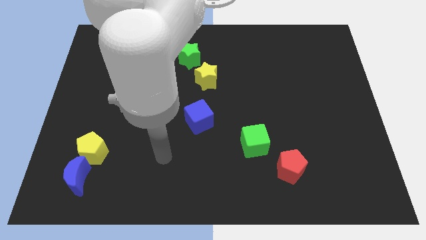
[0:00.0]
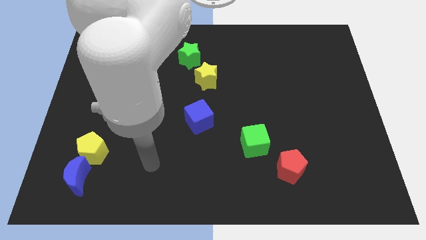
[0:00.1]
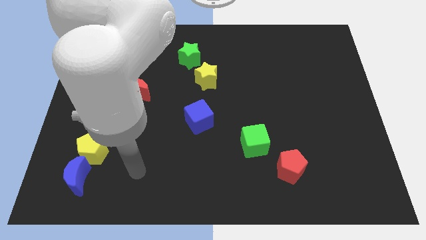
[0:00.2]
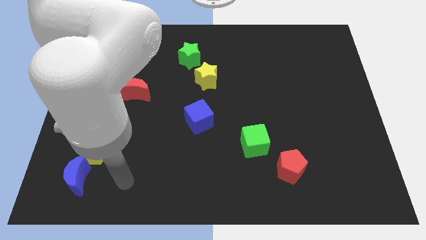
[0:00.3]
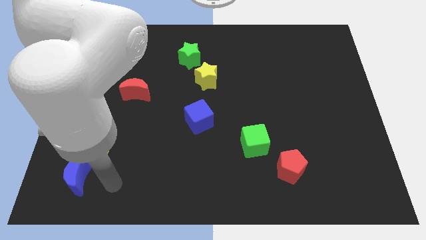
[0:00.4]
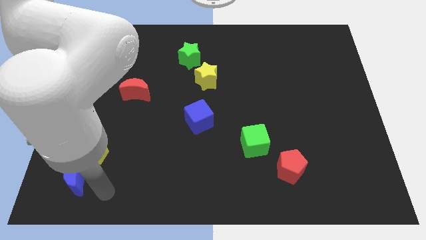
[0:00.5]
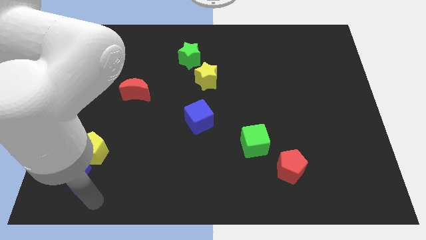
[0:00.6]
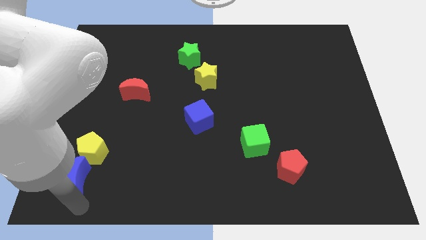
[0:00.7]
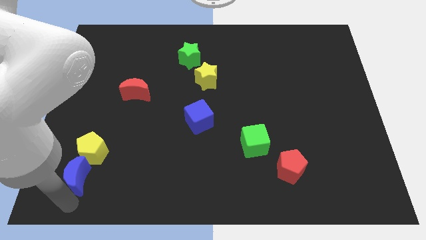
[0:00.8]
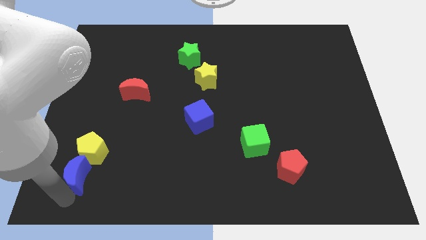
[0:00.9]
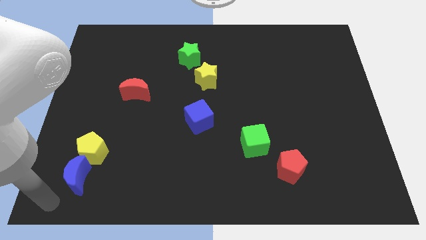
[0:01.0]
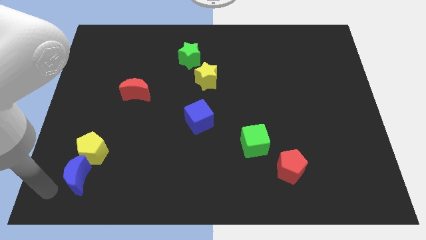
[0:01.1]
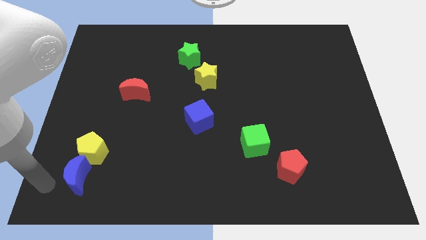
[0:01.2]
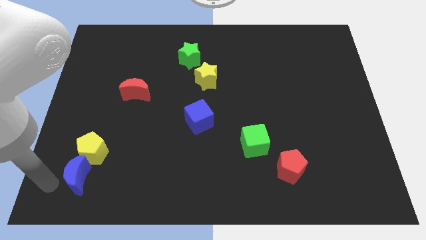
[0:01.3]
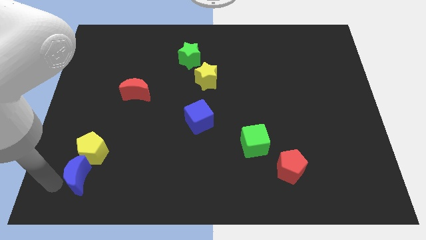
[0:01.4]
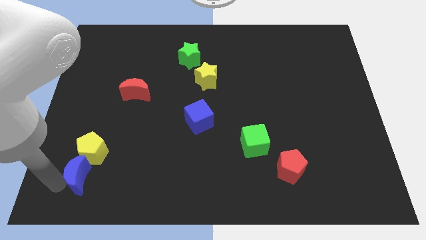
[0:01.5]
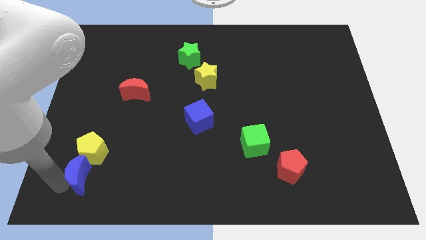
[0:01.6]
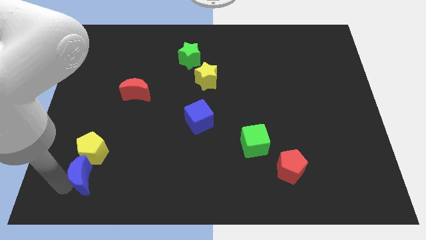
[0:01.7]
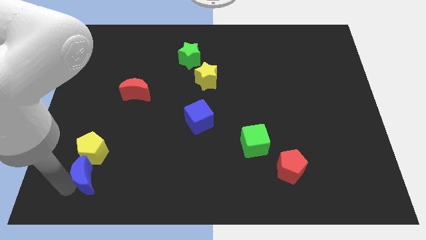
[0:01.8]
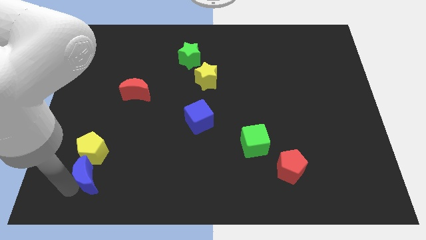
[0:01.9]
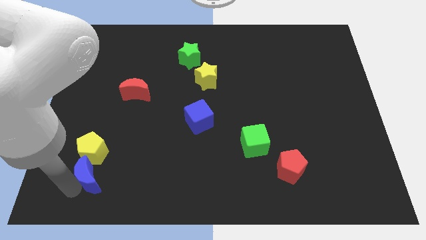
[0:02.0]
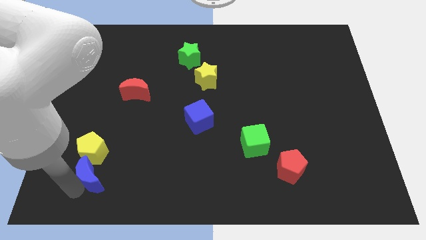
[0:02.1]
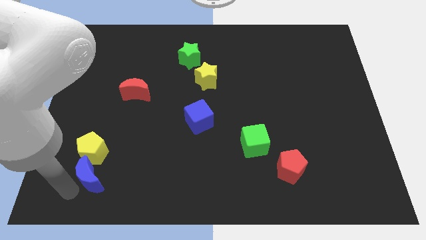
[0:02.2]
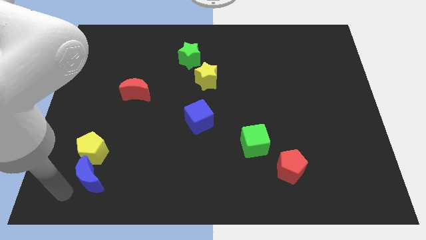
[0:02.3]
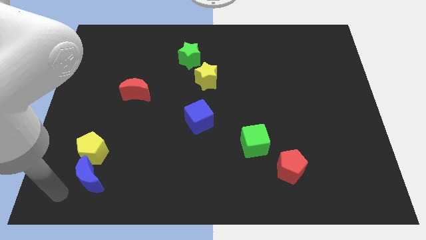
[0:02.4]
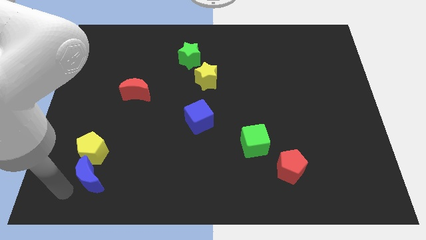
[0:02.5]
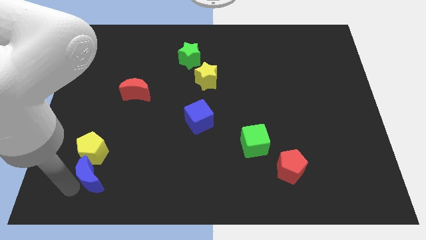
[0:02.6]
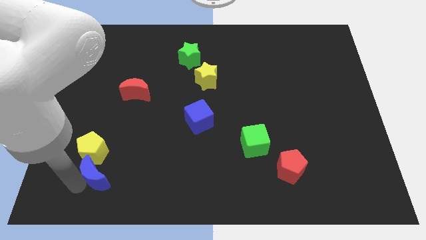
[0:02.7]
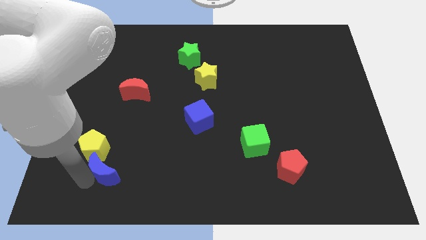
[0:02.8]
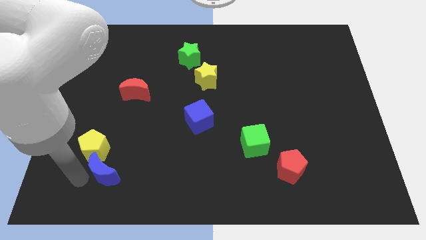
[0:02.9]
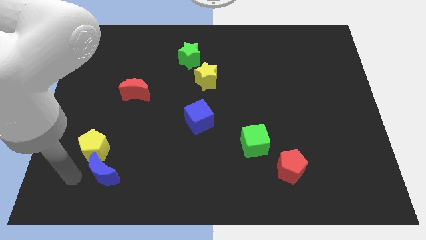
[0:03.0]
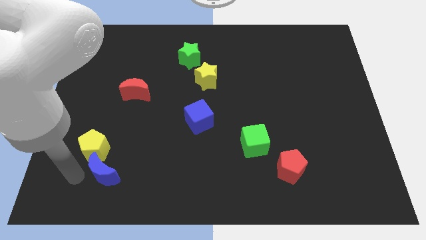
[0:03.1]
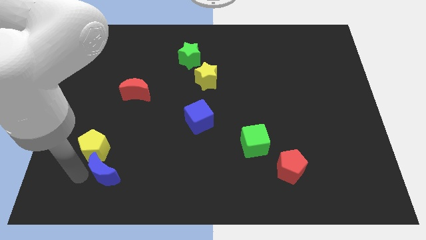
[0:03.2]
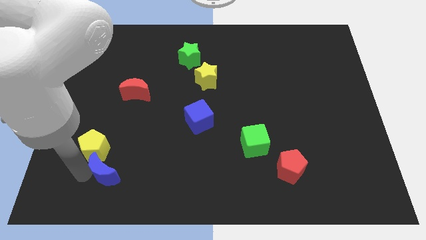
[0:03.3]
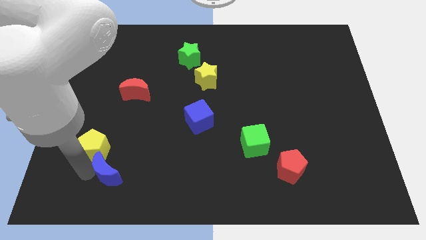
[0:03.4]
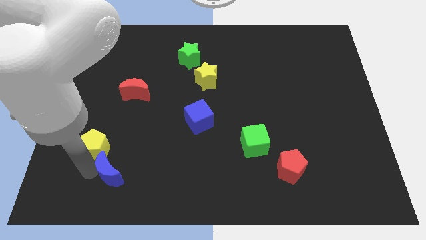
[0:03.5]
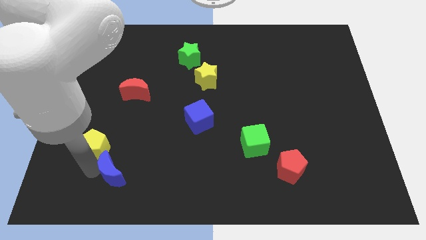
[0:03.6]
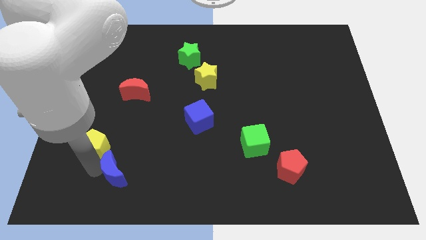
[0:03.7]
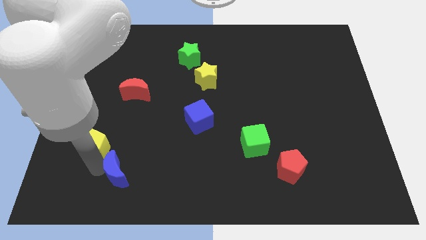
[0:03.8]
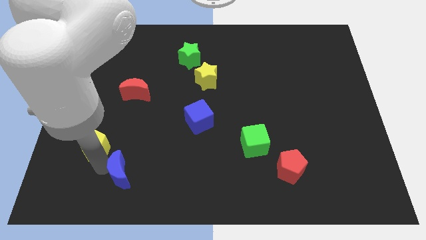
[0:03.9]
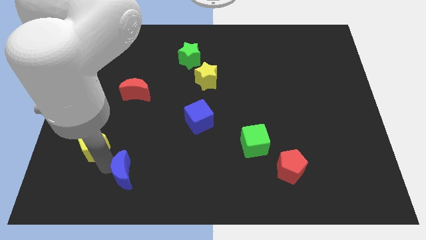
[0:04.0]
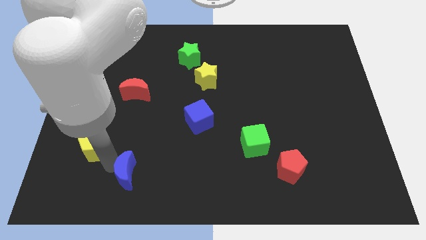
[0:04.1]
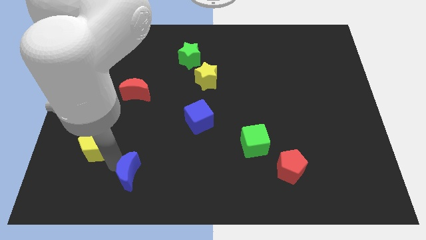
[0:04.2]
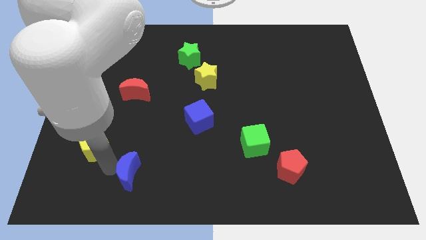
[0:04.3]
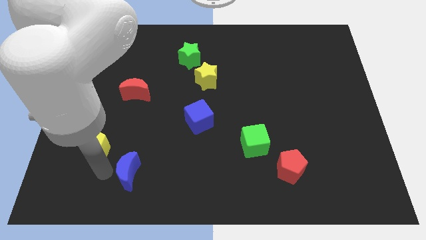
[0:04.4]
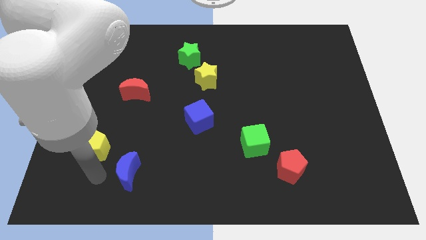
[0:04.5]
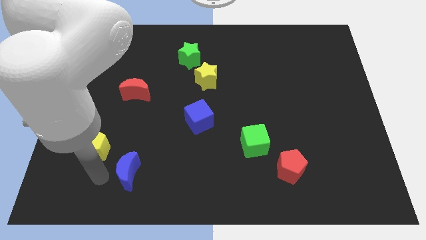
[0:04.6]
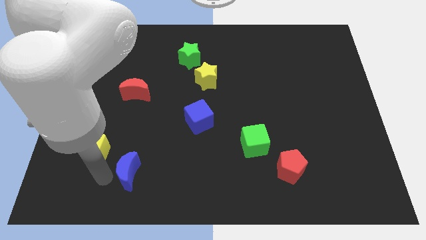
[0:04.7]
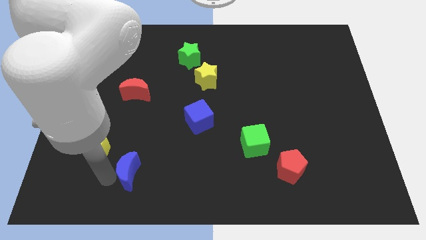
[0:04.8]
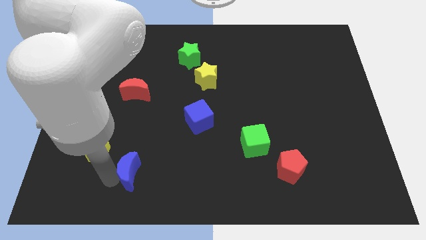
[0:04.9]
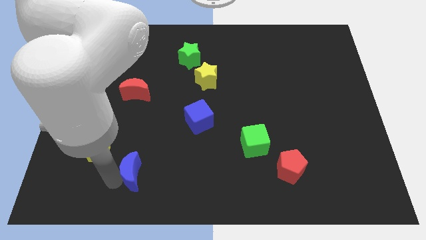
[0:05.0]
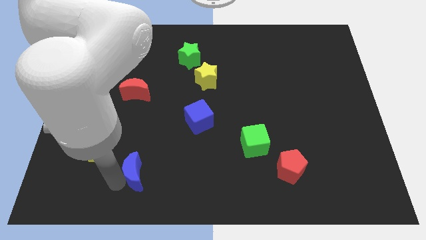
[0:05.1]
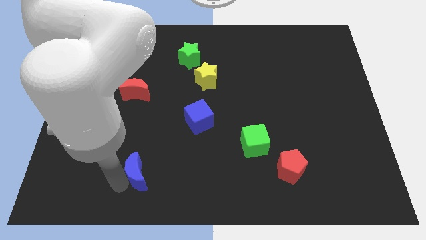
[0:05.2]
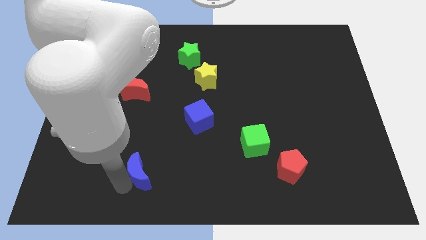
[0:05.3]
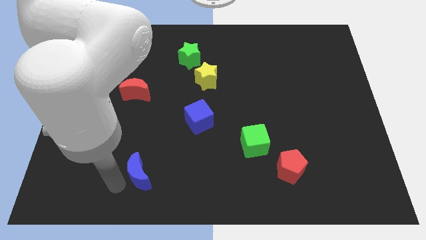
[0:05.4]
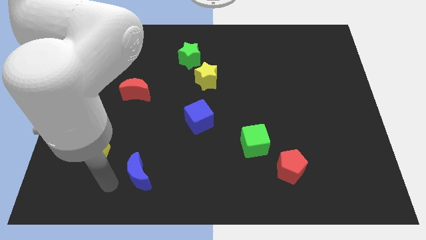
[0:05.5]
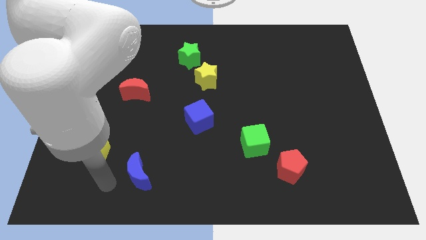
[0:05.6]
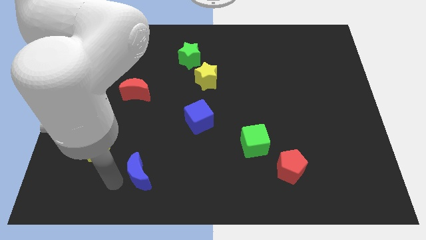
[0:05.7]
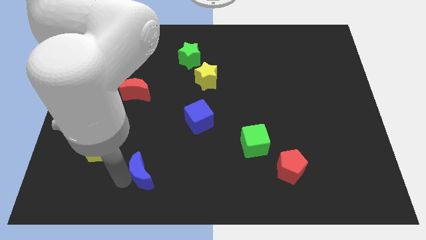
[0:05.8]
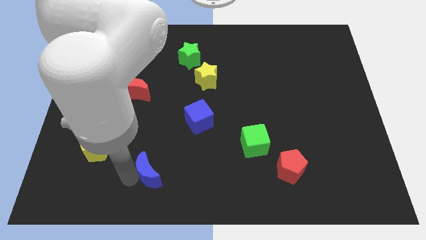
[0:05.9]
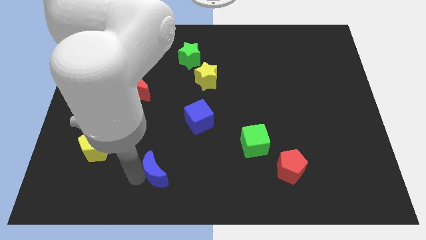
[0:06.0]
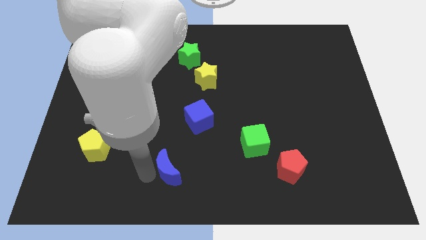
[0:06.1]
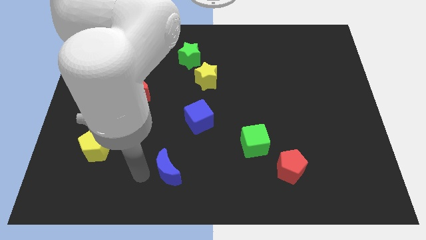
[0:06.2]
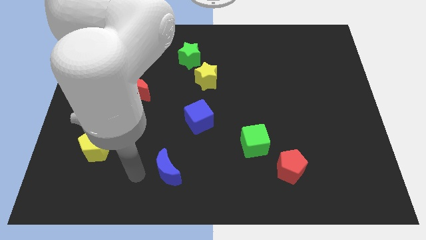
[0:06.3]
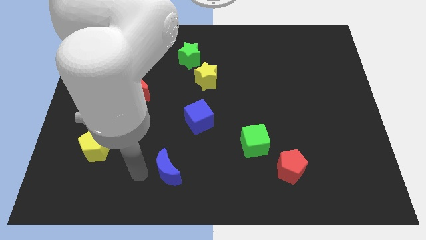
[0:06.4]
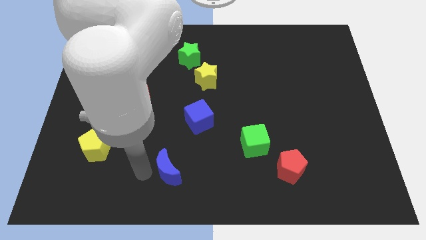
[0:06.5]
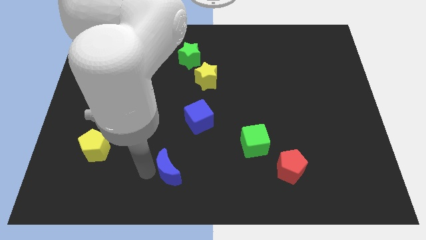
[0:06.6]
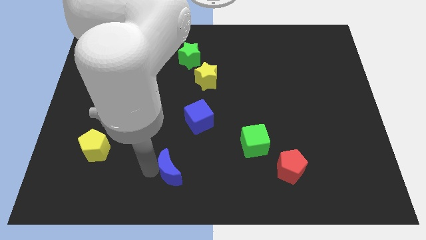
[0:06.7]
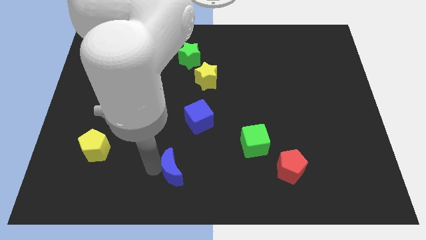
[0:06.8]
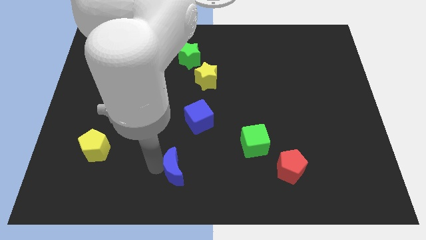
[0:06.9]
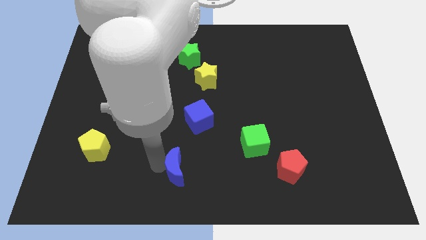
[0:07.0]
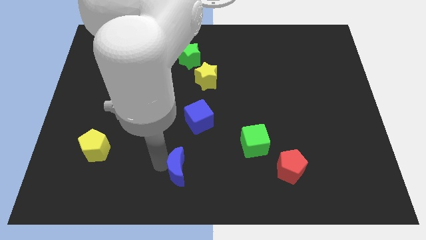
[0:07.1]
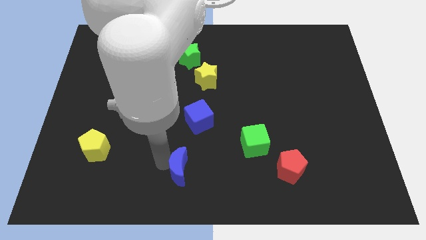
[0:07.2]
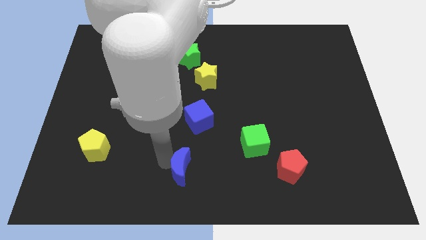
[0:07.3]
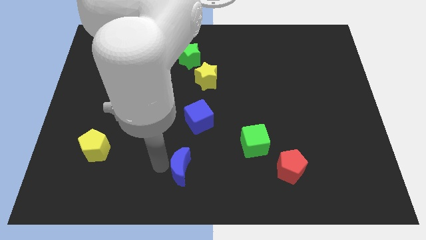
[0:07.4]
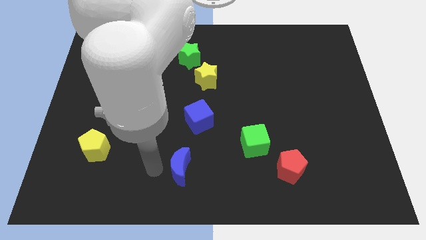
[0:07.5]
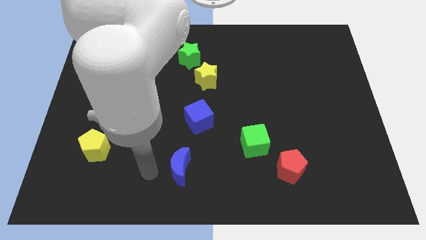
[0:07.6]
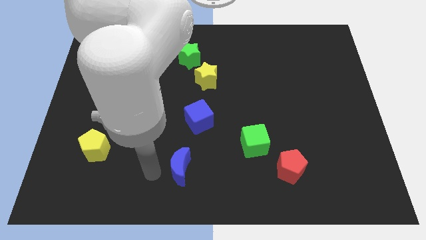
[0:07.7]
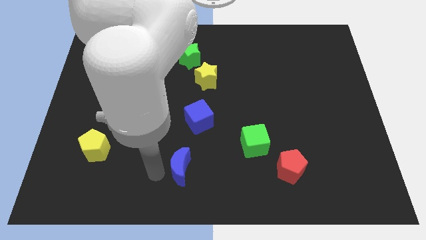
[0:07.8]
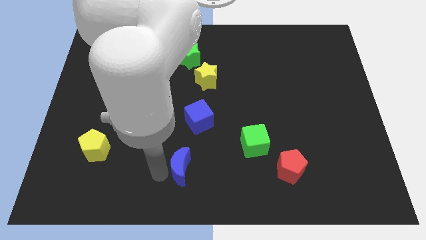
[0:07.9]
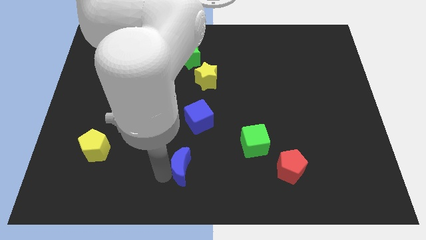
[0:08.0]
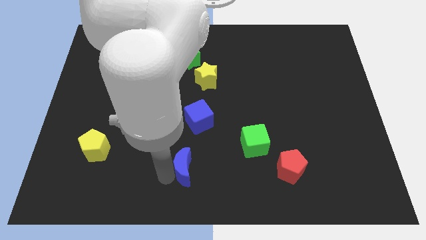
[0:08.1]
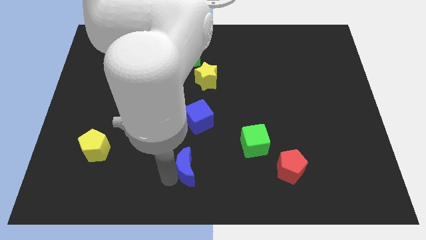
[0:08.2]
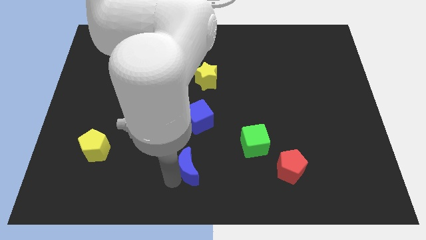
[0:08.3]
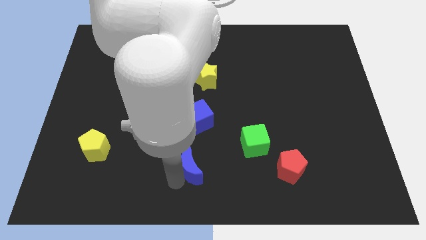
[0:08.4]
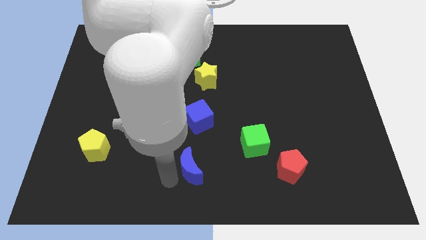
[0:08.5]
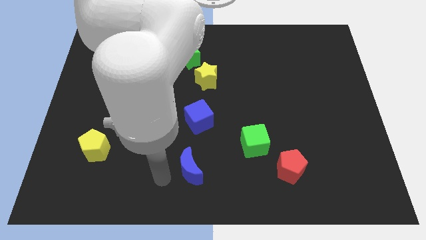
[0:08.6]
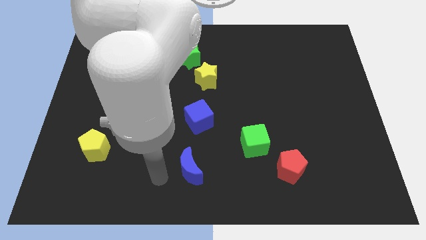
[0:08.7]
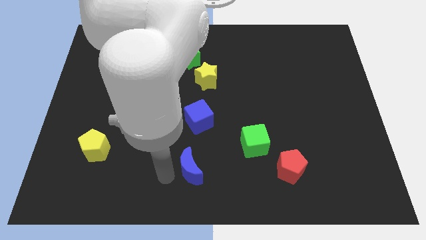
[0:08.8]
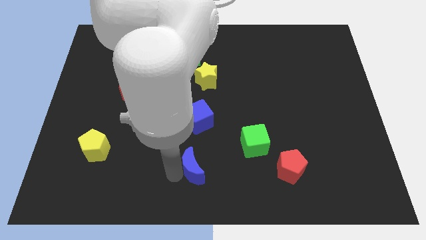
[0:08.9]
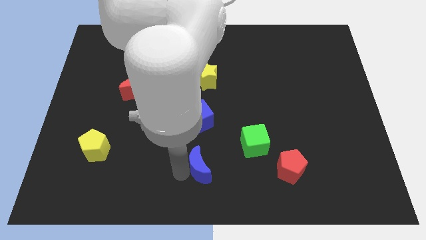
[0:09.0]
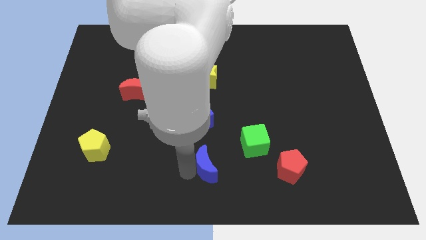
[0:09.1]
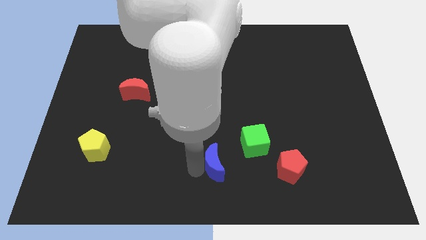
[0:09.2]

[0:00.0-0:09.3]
slide the blue moon to the left of the red pentagon
